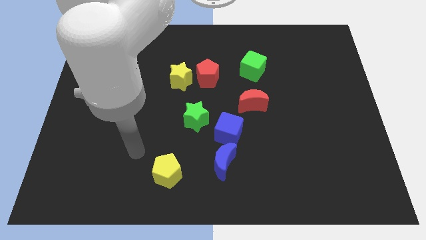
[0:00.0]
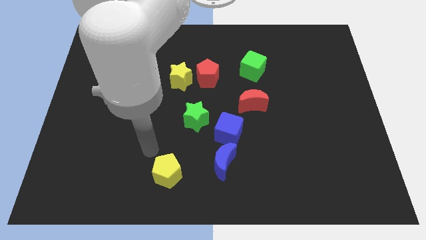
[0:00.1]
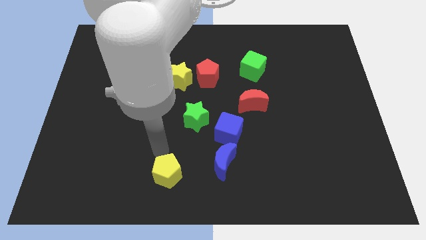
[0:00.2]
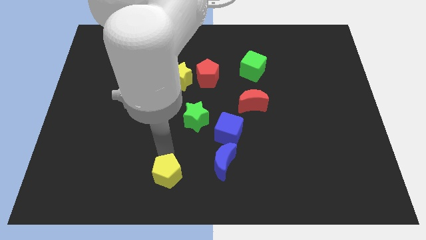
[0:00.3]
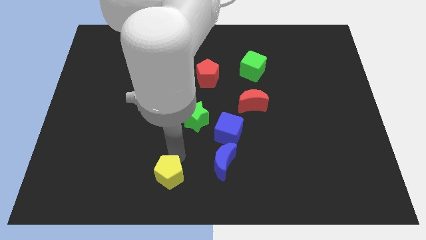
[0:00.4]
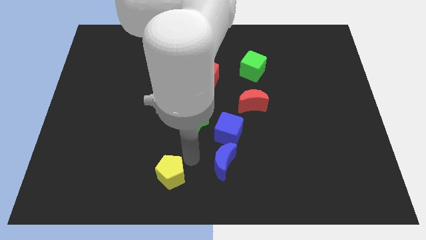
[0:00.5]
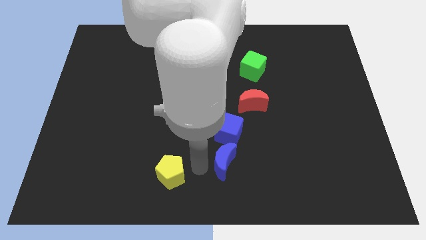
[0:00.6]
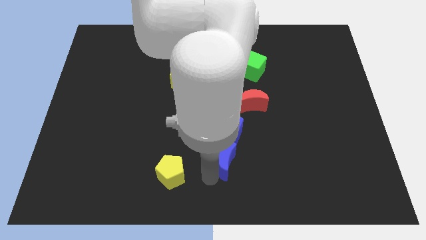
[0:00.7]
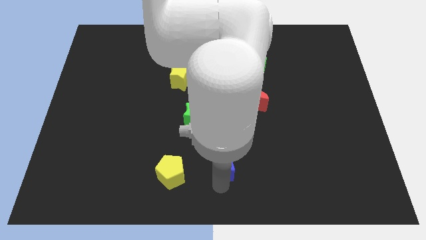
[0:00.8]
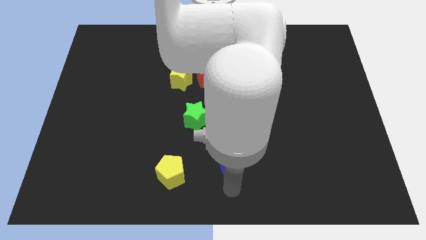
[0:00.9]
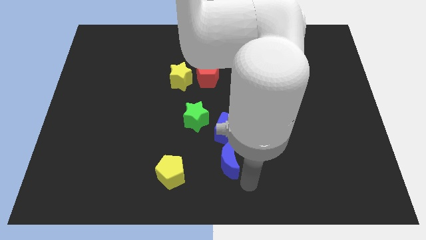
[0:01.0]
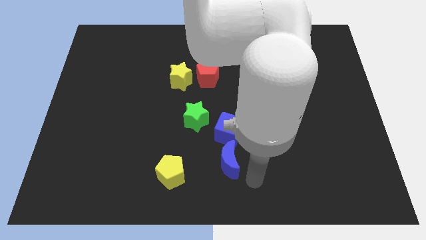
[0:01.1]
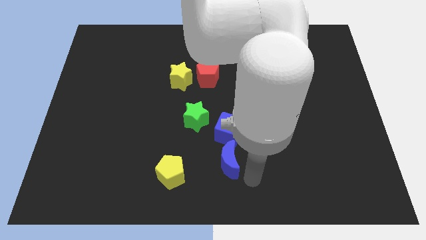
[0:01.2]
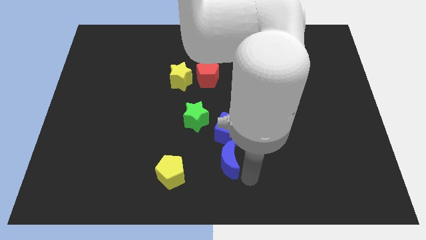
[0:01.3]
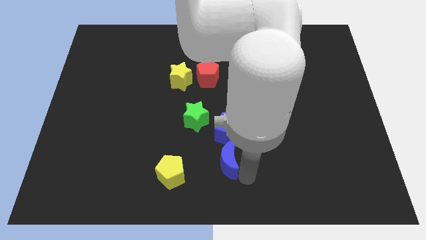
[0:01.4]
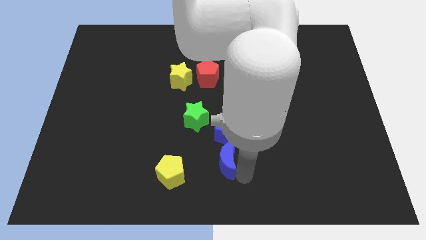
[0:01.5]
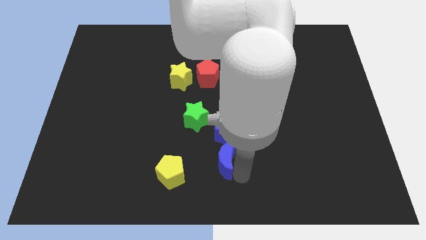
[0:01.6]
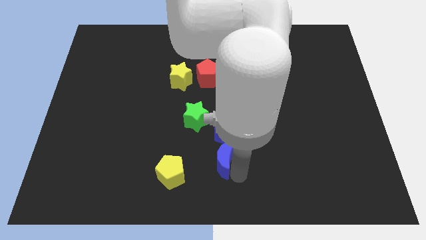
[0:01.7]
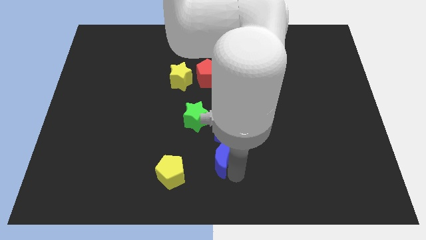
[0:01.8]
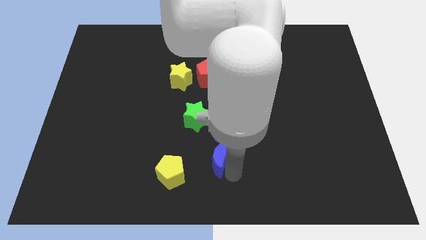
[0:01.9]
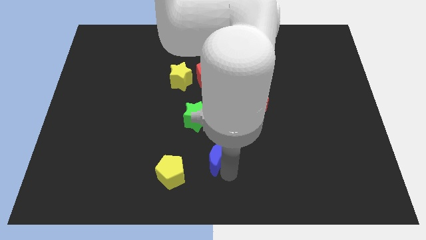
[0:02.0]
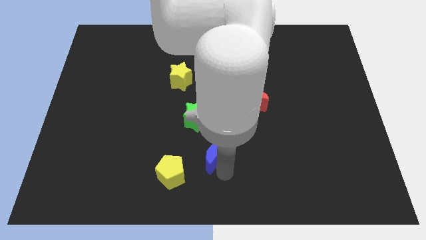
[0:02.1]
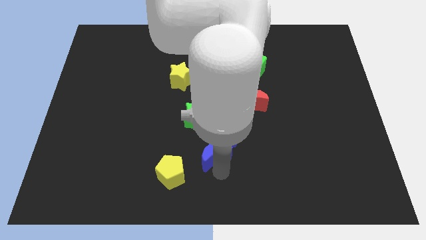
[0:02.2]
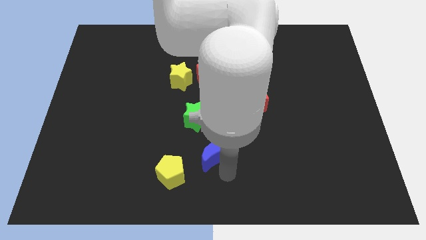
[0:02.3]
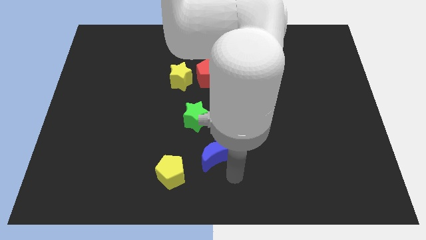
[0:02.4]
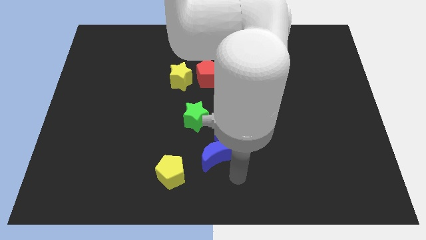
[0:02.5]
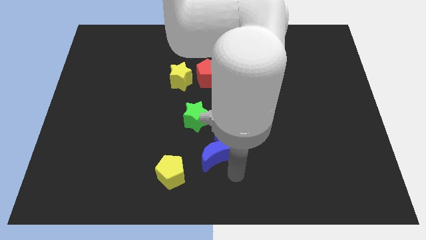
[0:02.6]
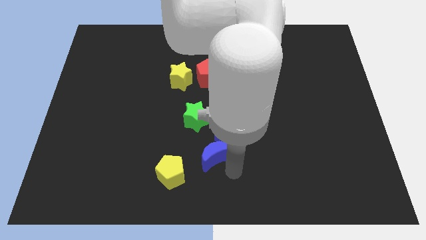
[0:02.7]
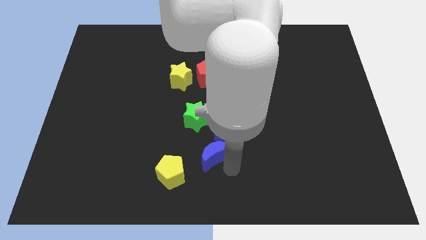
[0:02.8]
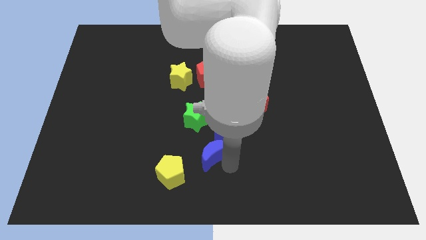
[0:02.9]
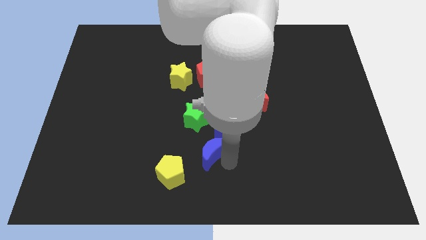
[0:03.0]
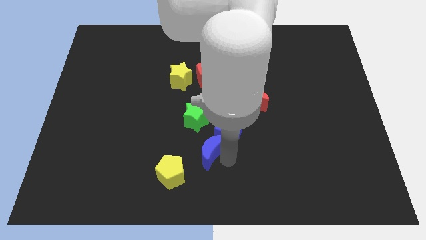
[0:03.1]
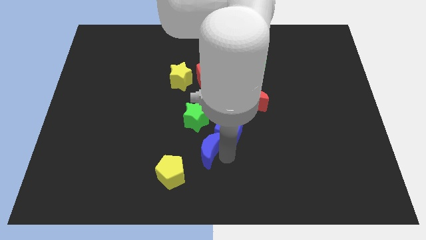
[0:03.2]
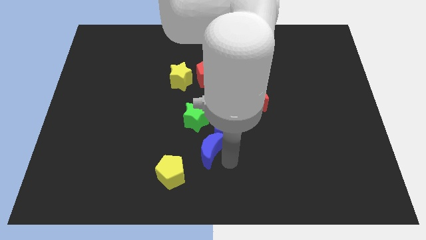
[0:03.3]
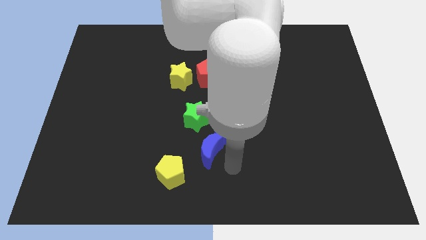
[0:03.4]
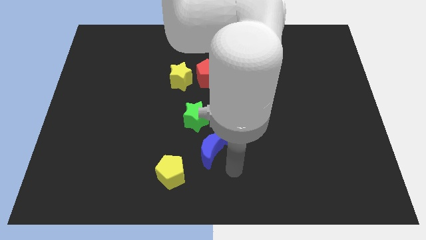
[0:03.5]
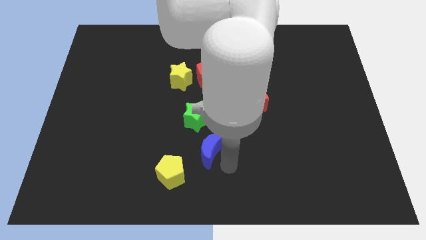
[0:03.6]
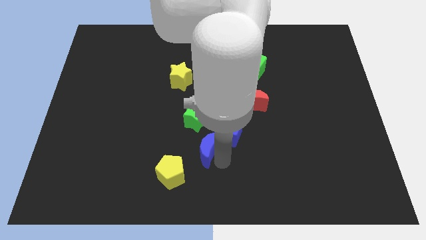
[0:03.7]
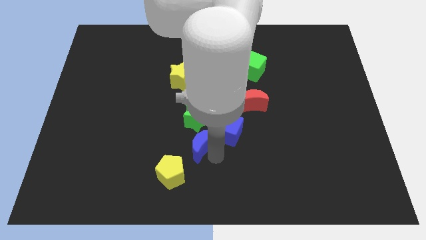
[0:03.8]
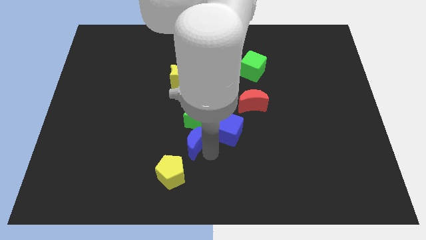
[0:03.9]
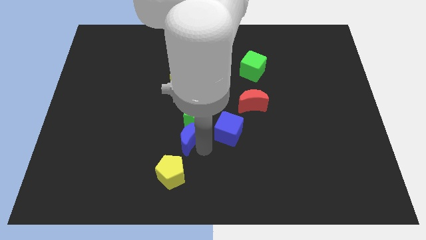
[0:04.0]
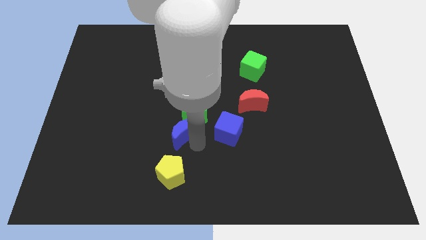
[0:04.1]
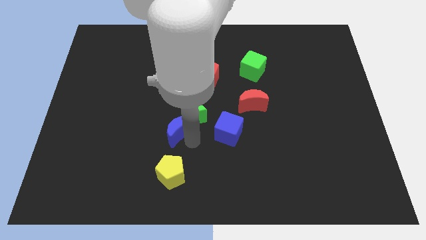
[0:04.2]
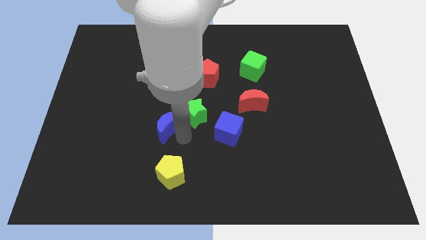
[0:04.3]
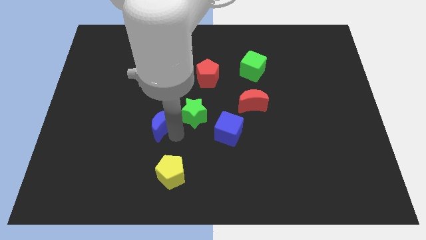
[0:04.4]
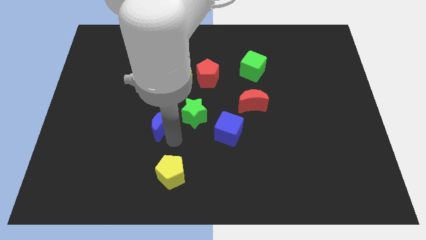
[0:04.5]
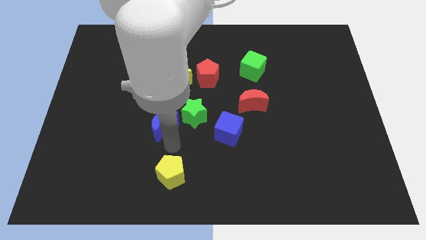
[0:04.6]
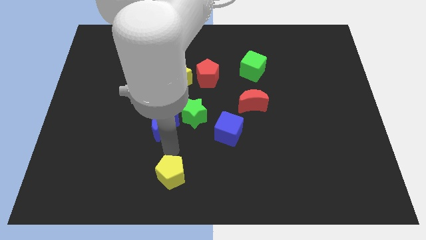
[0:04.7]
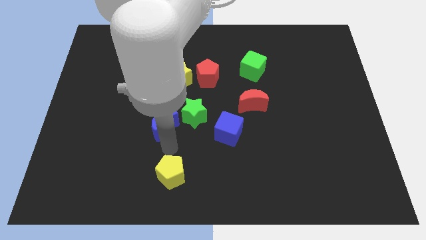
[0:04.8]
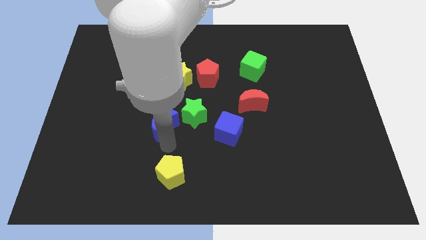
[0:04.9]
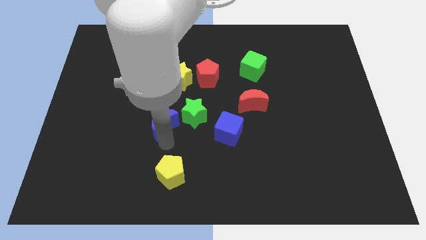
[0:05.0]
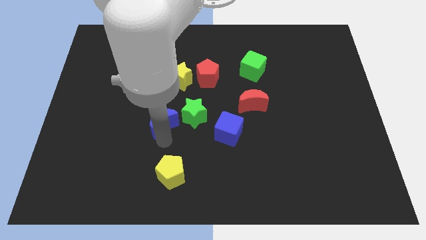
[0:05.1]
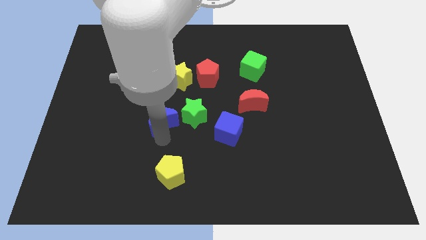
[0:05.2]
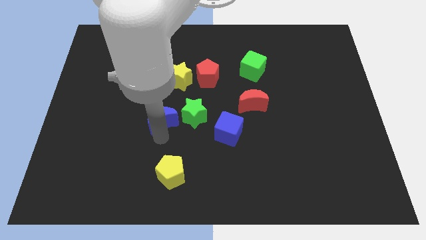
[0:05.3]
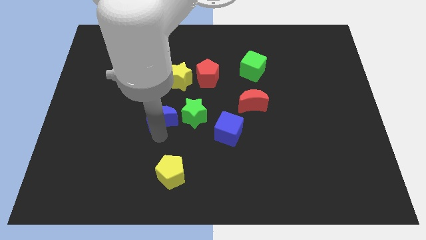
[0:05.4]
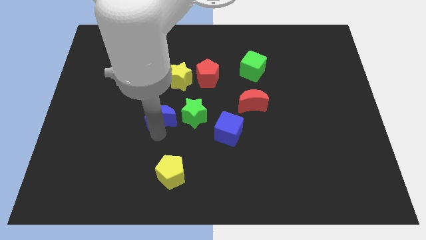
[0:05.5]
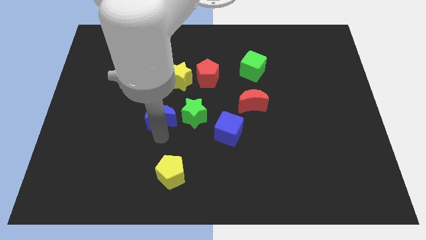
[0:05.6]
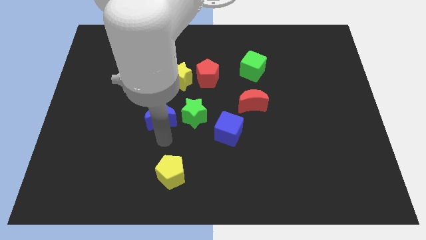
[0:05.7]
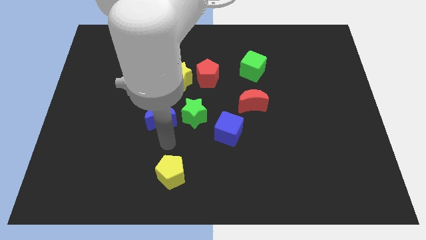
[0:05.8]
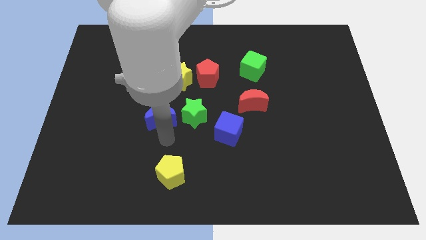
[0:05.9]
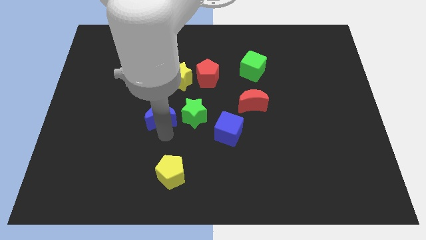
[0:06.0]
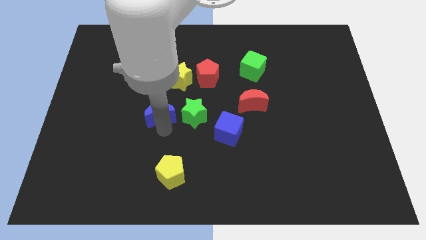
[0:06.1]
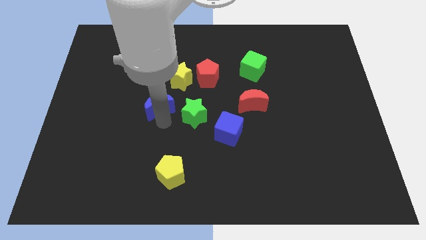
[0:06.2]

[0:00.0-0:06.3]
push the blue moon upwards and then left

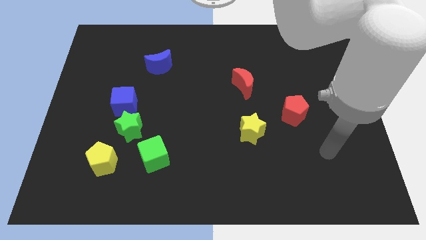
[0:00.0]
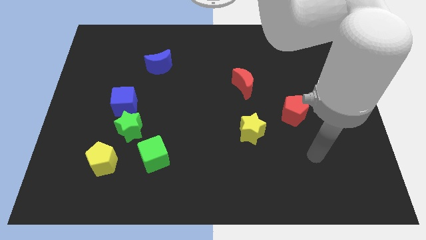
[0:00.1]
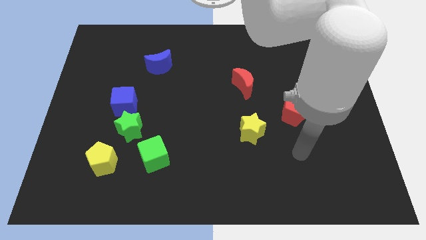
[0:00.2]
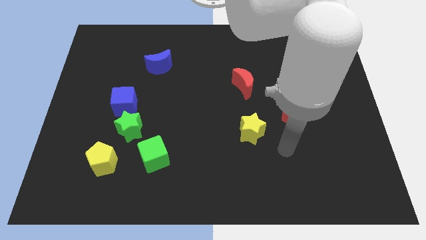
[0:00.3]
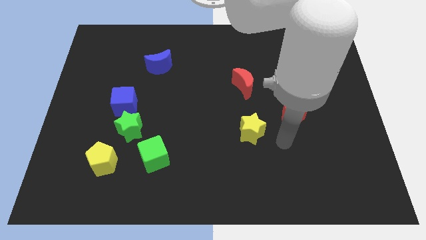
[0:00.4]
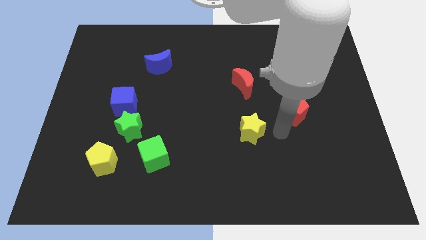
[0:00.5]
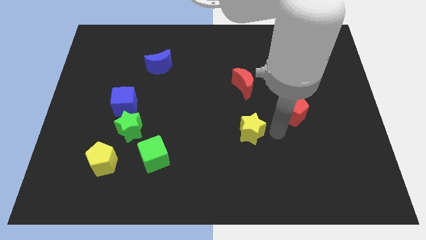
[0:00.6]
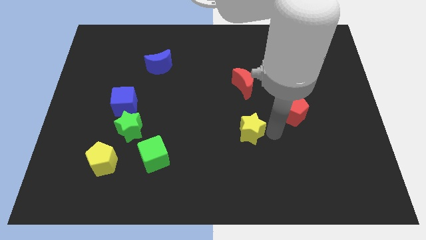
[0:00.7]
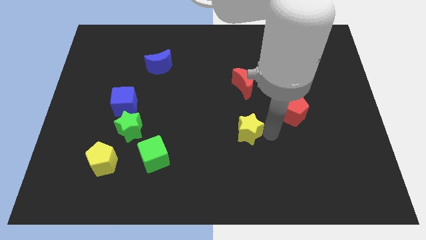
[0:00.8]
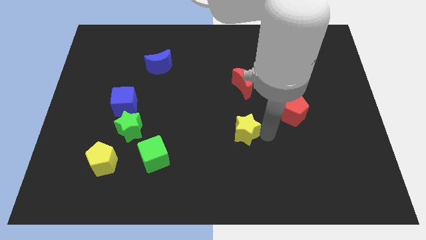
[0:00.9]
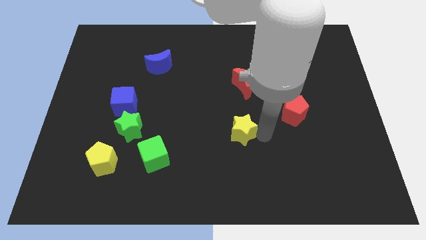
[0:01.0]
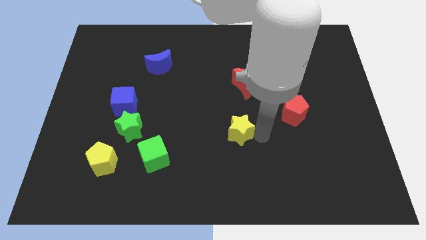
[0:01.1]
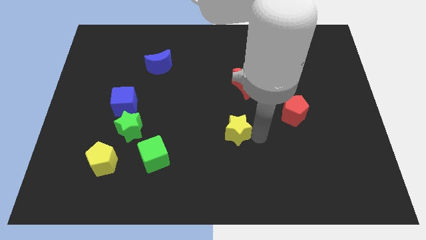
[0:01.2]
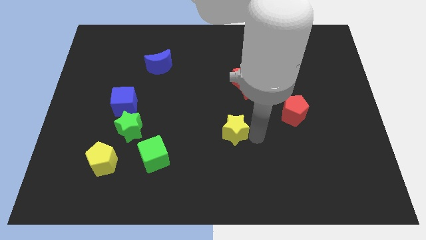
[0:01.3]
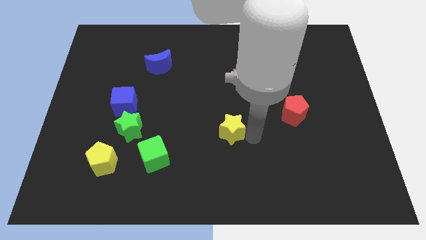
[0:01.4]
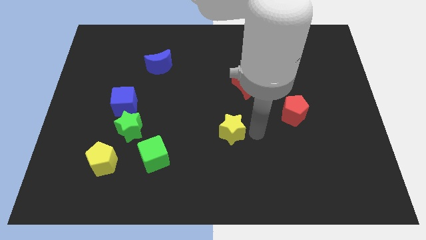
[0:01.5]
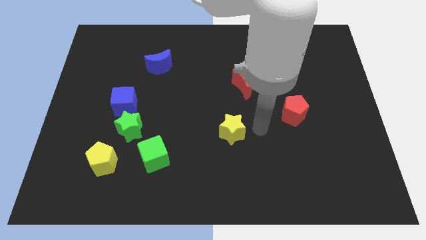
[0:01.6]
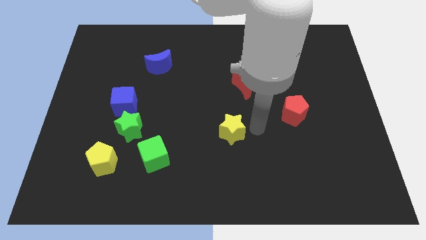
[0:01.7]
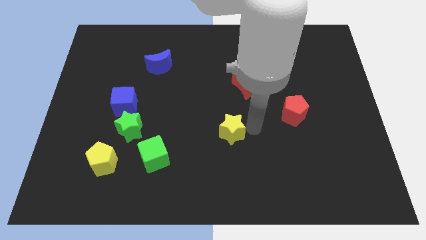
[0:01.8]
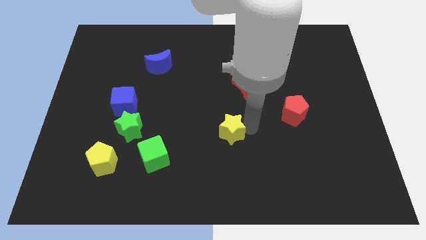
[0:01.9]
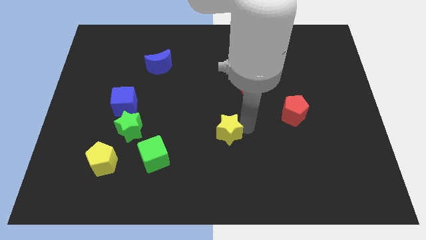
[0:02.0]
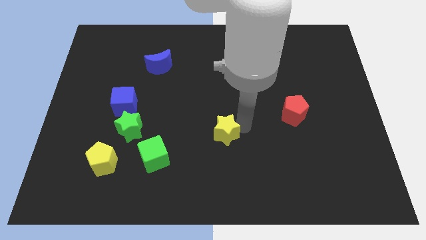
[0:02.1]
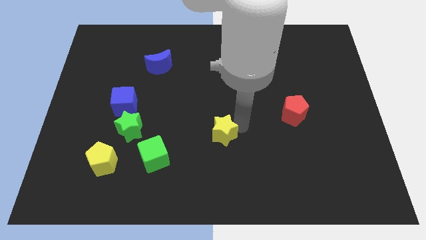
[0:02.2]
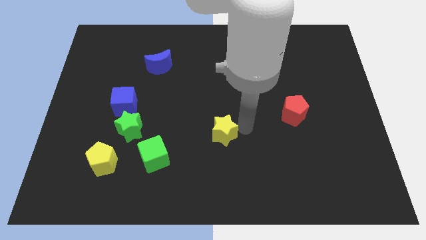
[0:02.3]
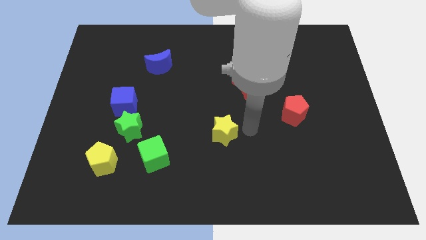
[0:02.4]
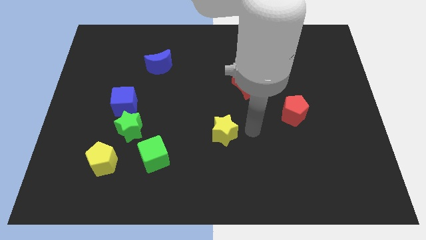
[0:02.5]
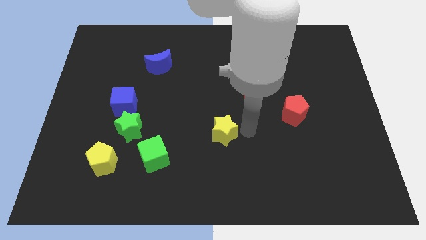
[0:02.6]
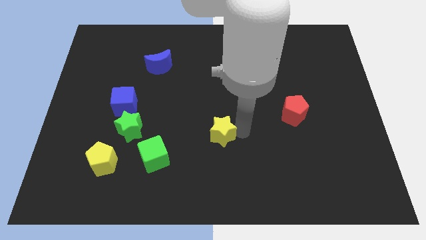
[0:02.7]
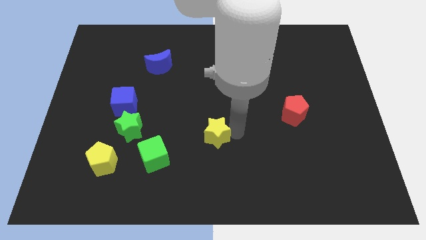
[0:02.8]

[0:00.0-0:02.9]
slightly slide the yellow star left
